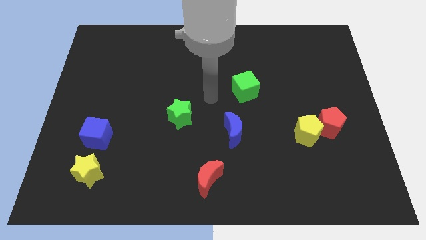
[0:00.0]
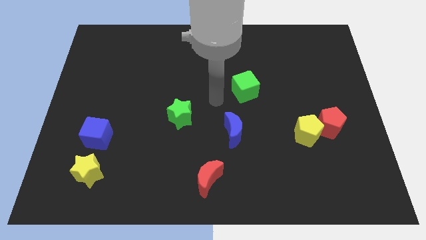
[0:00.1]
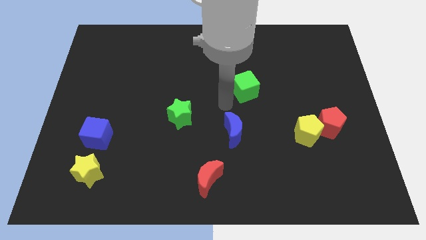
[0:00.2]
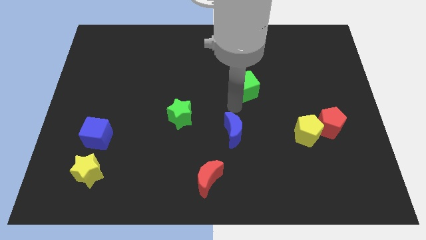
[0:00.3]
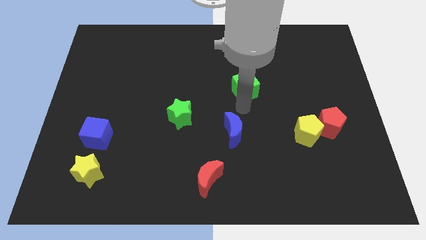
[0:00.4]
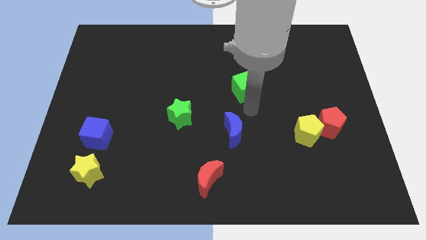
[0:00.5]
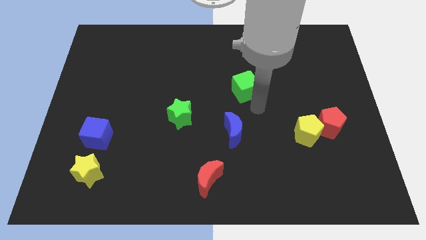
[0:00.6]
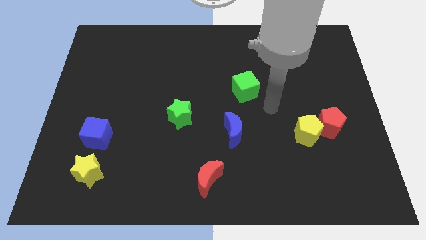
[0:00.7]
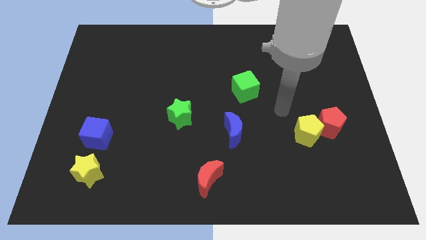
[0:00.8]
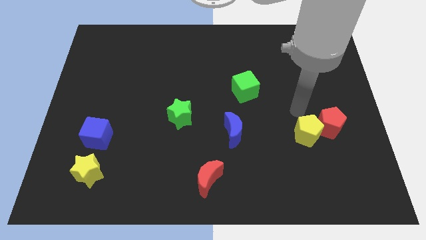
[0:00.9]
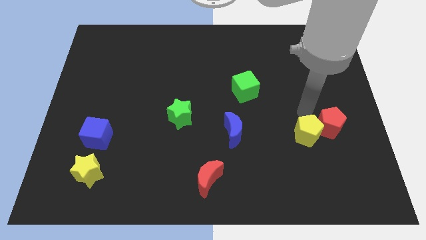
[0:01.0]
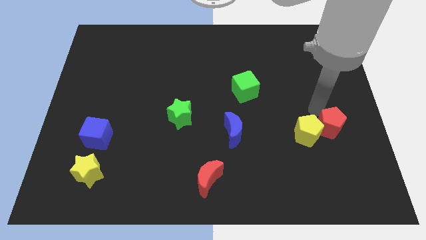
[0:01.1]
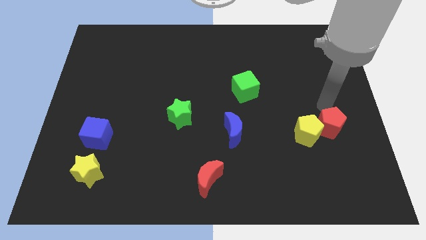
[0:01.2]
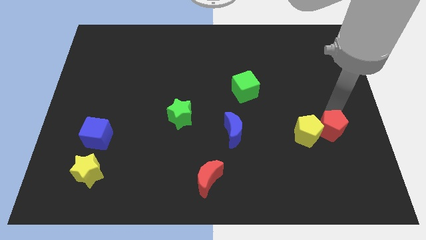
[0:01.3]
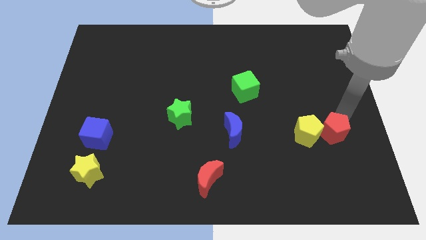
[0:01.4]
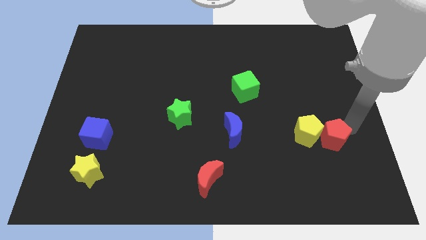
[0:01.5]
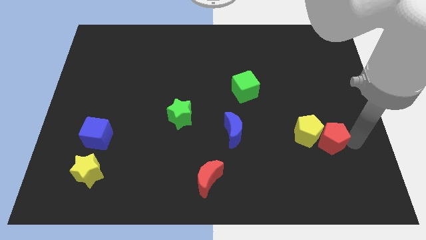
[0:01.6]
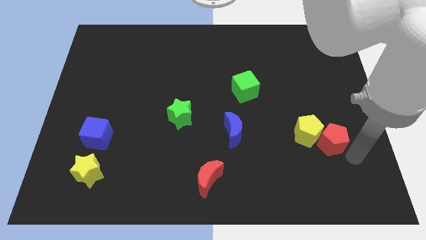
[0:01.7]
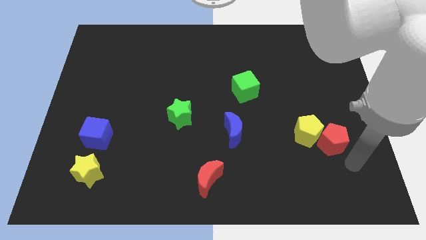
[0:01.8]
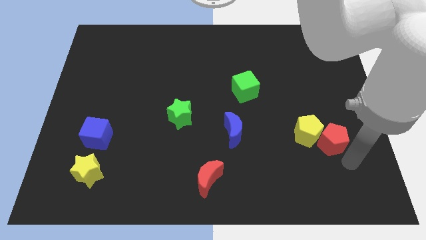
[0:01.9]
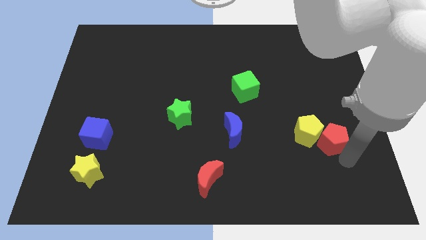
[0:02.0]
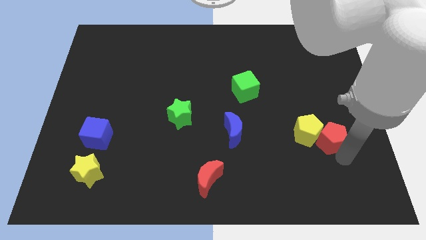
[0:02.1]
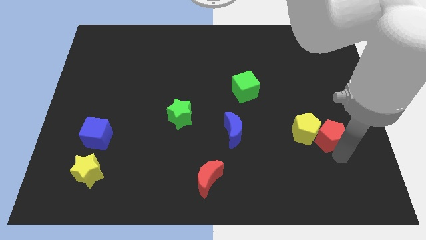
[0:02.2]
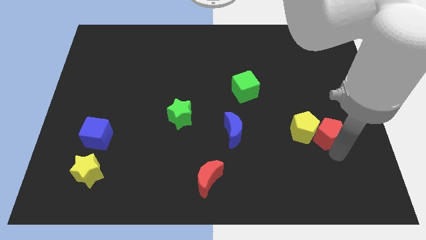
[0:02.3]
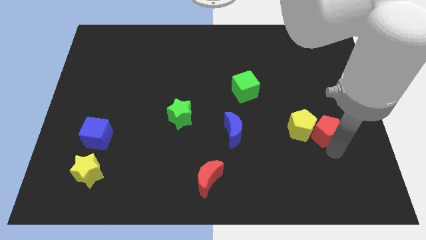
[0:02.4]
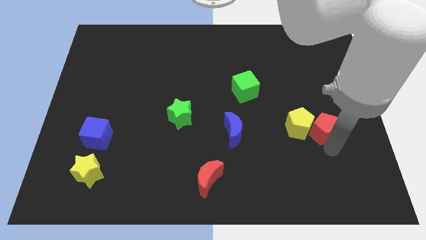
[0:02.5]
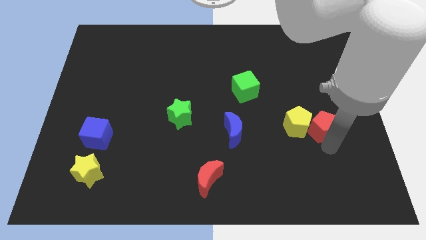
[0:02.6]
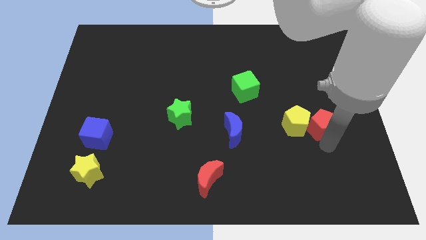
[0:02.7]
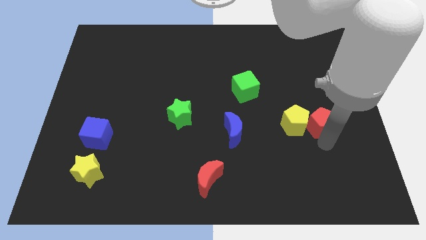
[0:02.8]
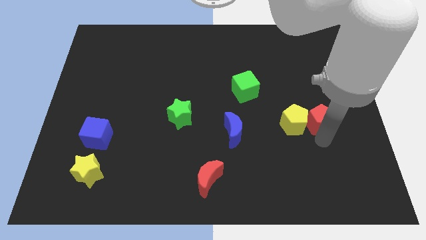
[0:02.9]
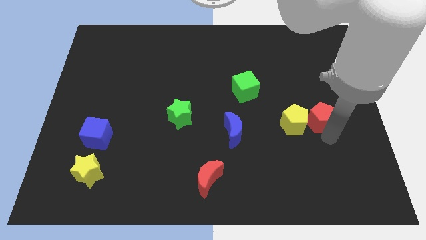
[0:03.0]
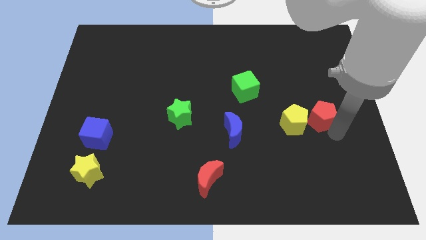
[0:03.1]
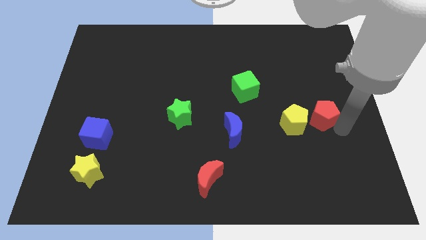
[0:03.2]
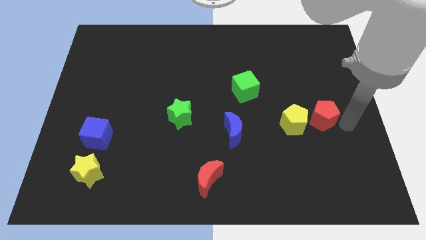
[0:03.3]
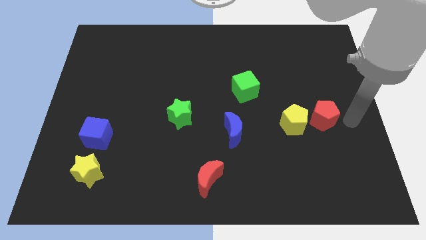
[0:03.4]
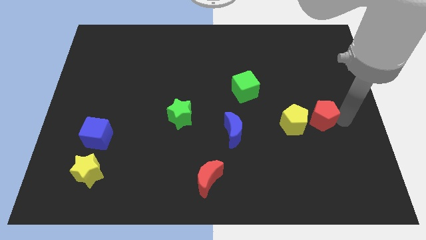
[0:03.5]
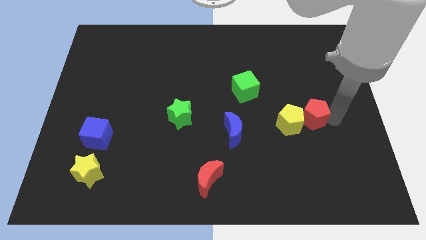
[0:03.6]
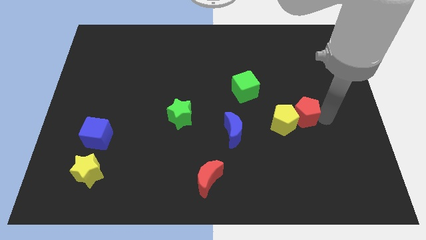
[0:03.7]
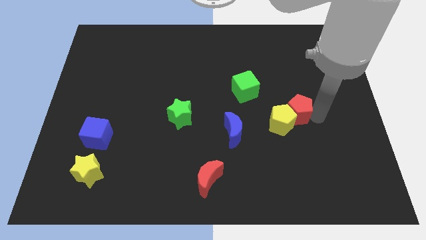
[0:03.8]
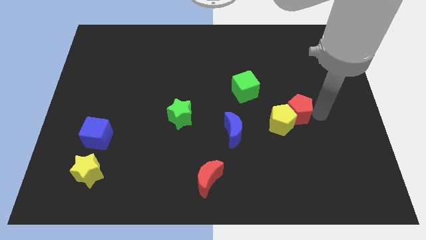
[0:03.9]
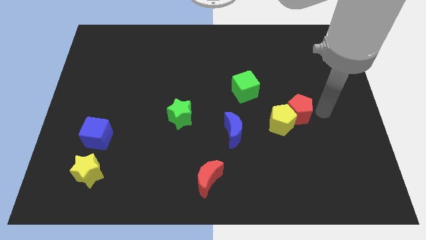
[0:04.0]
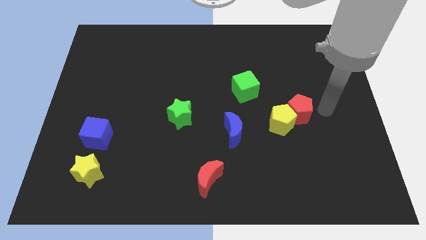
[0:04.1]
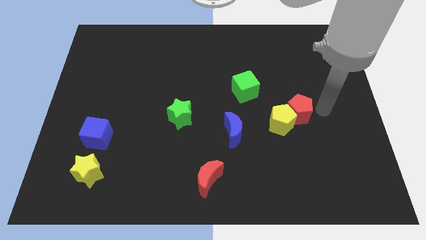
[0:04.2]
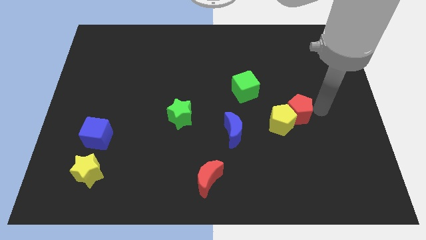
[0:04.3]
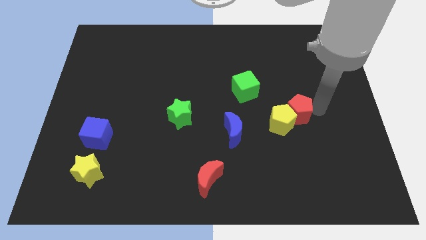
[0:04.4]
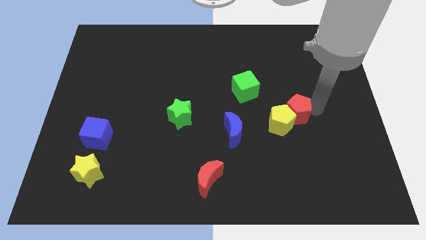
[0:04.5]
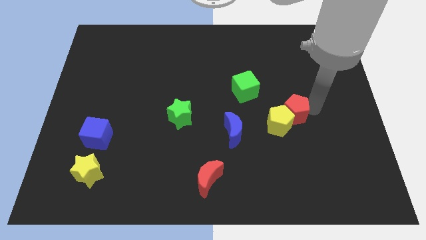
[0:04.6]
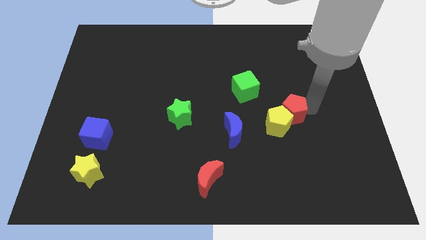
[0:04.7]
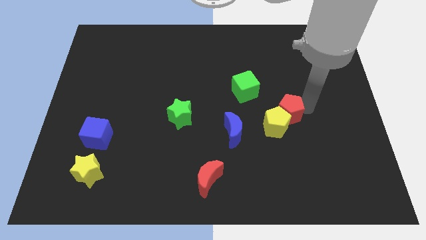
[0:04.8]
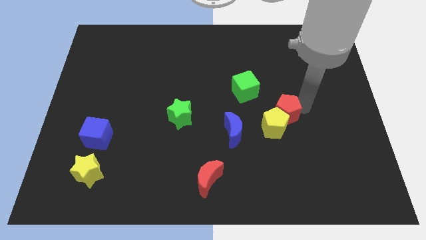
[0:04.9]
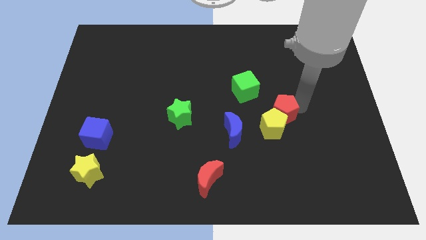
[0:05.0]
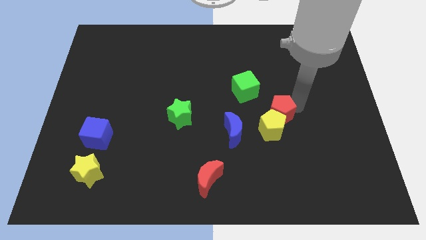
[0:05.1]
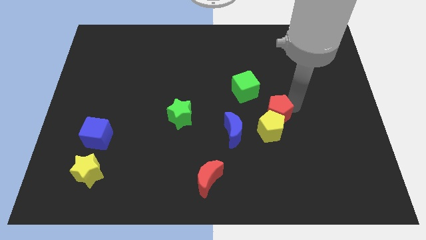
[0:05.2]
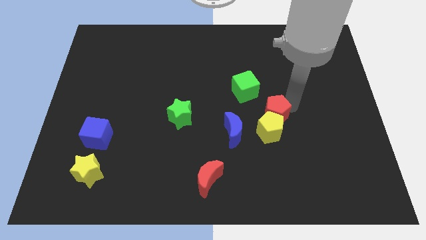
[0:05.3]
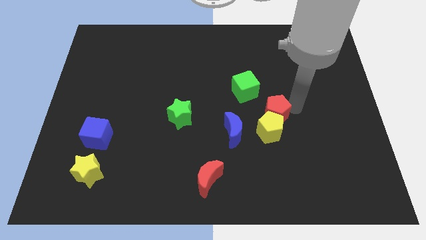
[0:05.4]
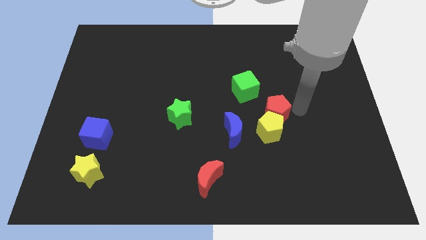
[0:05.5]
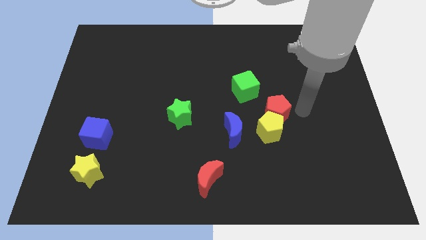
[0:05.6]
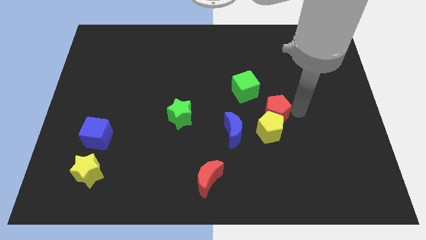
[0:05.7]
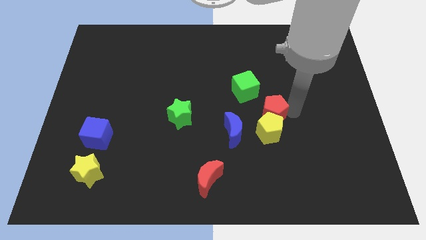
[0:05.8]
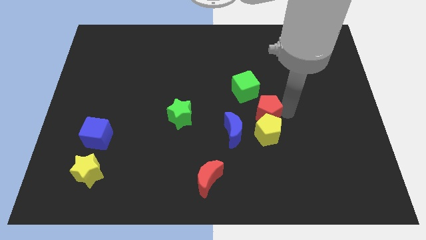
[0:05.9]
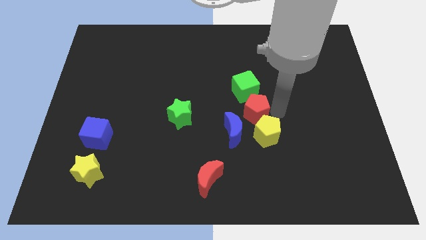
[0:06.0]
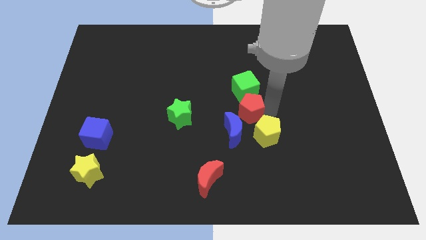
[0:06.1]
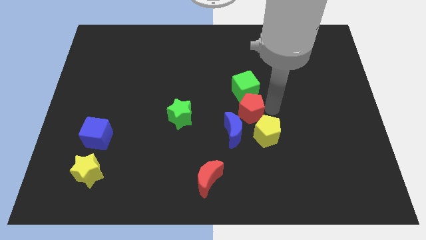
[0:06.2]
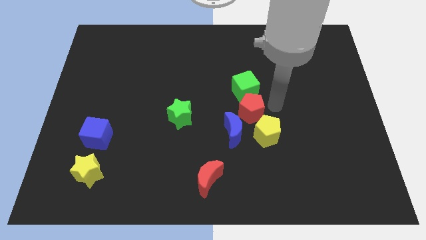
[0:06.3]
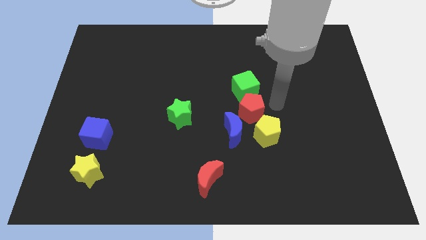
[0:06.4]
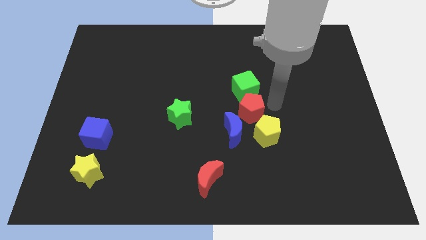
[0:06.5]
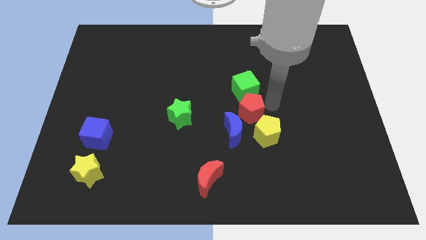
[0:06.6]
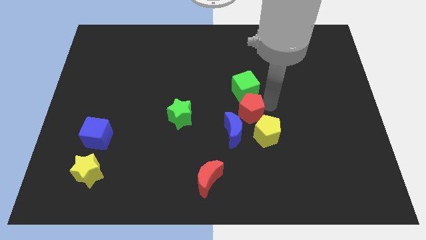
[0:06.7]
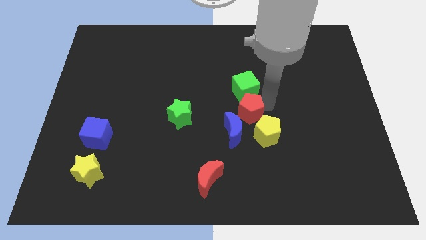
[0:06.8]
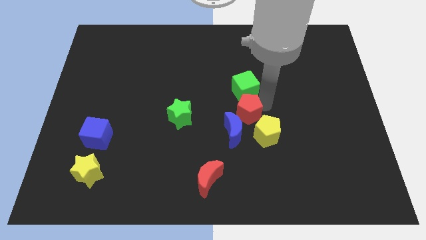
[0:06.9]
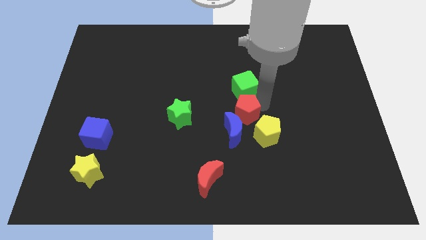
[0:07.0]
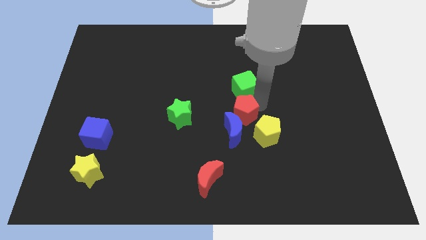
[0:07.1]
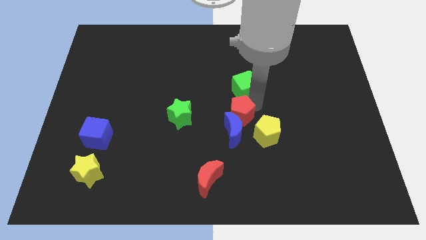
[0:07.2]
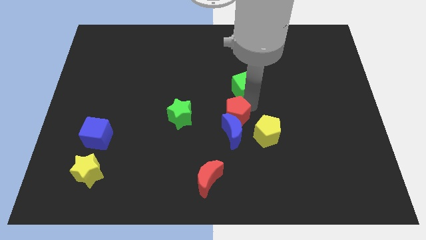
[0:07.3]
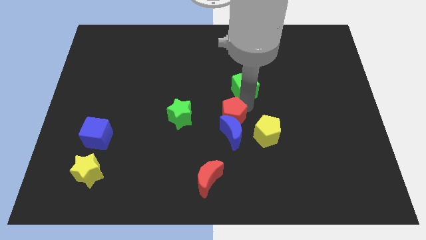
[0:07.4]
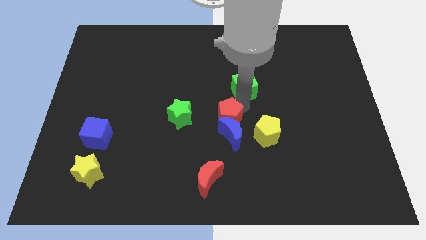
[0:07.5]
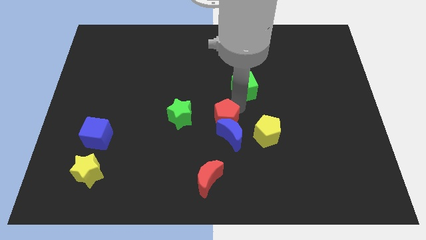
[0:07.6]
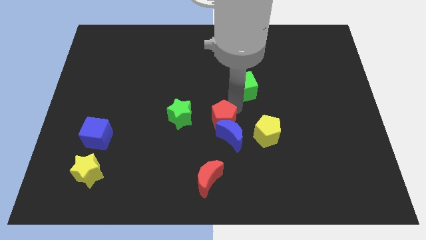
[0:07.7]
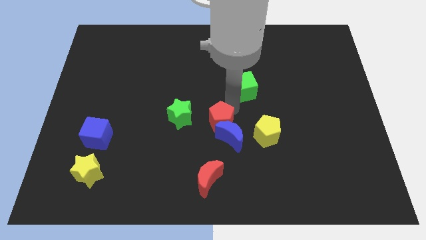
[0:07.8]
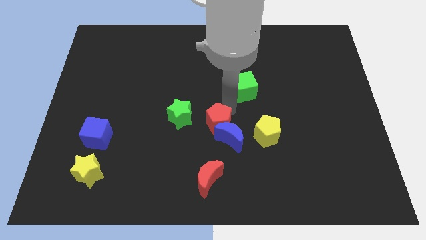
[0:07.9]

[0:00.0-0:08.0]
move the red pentagon to the bottom right side of the green star
